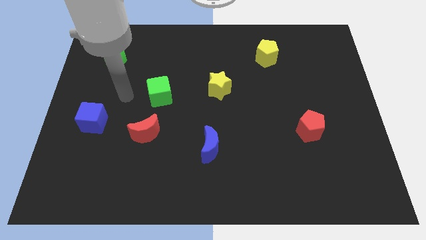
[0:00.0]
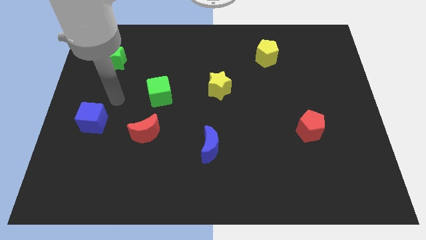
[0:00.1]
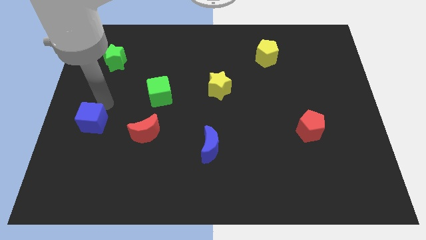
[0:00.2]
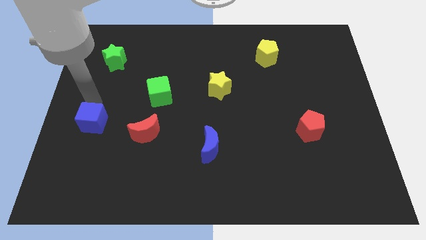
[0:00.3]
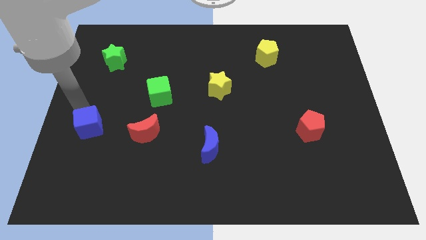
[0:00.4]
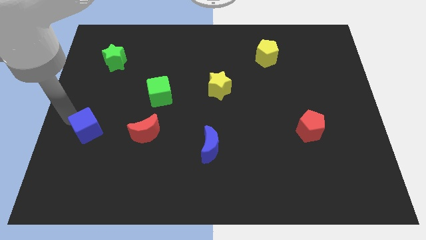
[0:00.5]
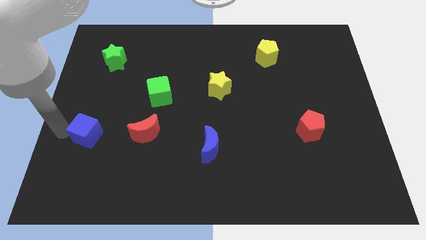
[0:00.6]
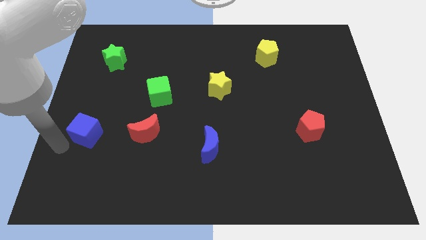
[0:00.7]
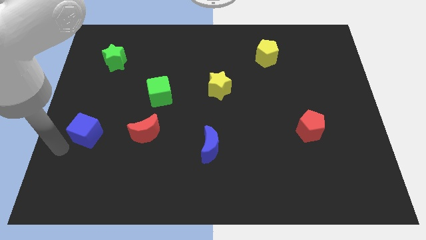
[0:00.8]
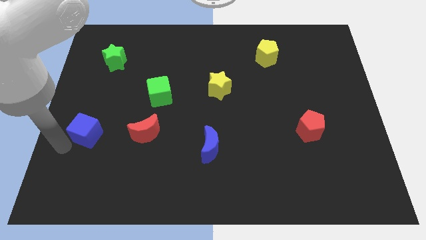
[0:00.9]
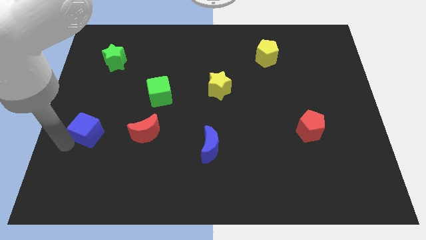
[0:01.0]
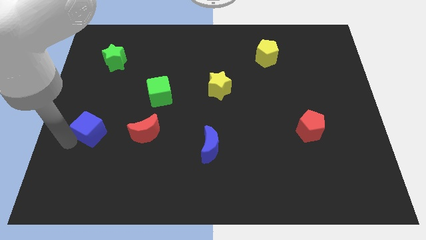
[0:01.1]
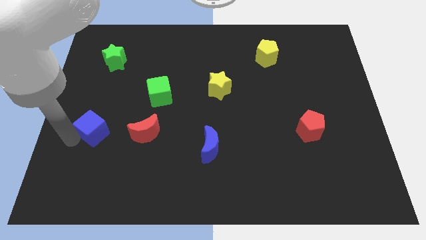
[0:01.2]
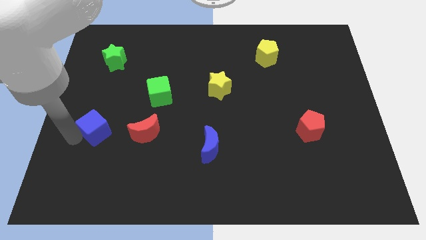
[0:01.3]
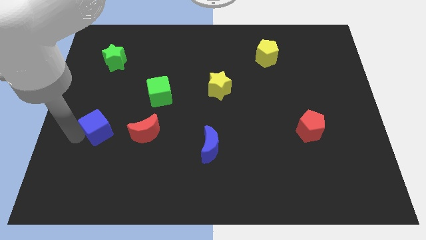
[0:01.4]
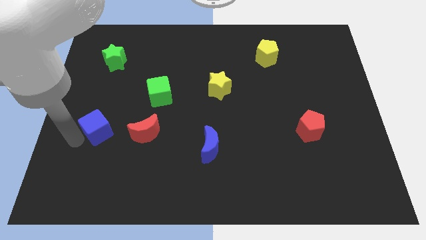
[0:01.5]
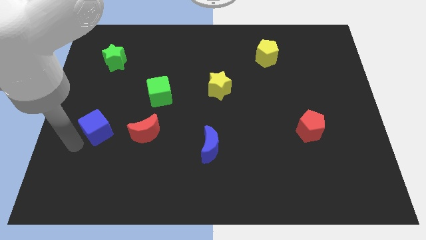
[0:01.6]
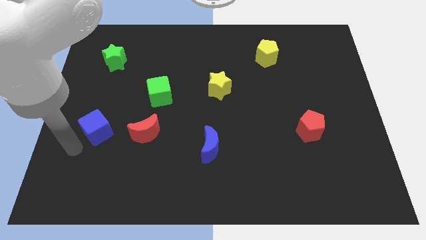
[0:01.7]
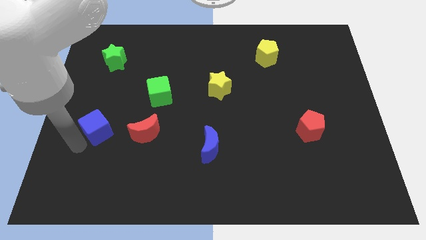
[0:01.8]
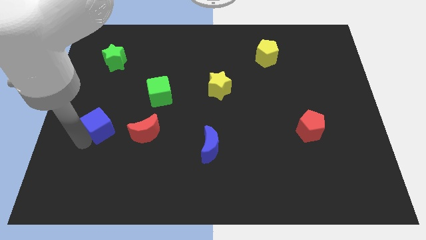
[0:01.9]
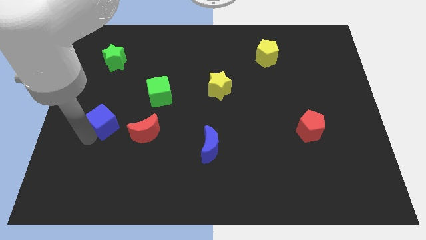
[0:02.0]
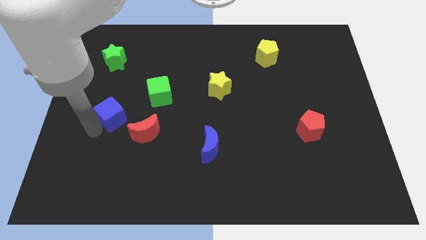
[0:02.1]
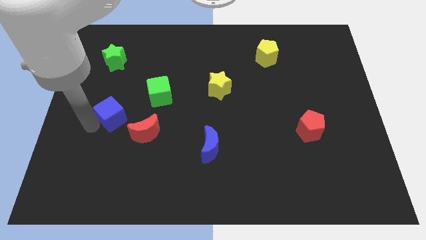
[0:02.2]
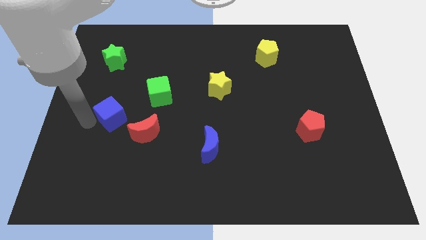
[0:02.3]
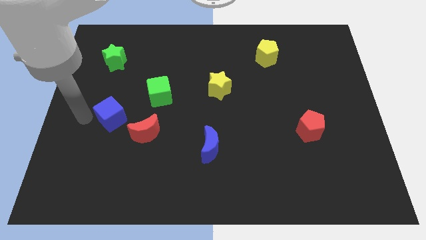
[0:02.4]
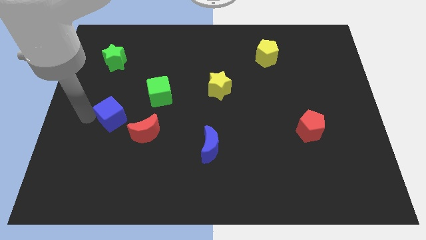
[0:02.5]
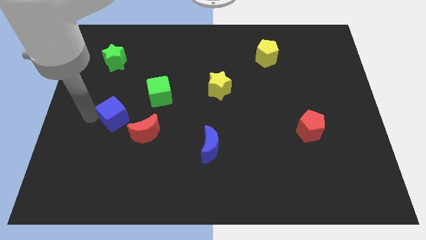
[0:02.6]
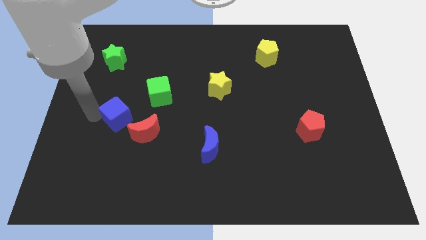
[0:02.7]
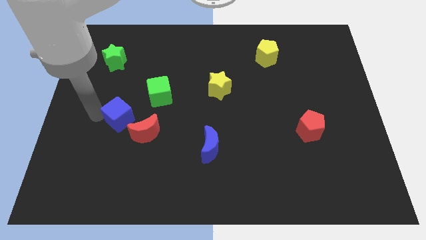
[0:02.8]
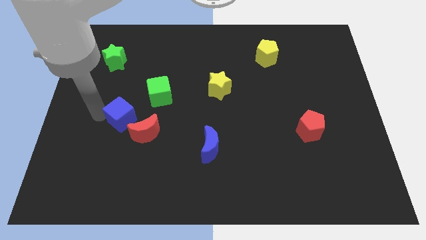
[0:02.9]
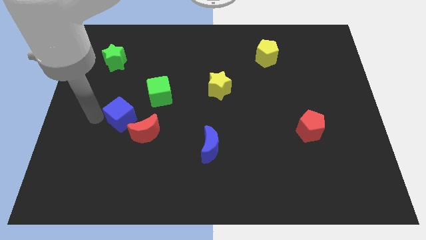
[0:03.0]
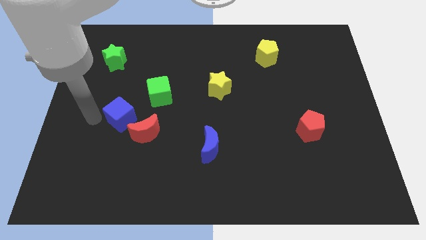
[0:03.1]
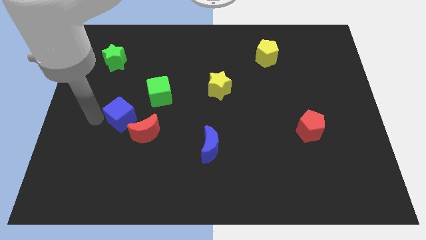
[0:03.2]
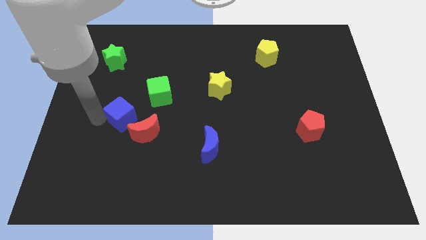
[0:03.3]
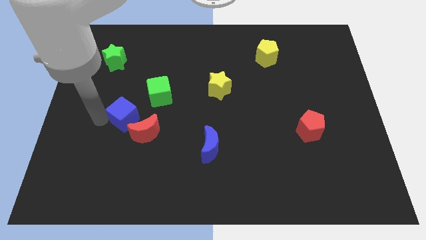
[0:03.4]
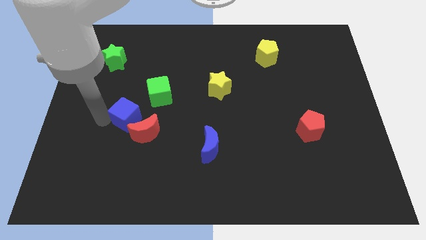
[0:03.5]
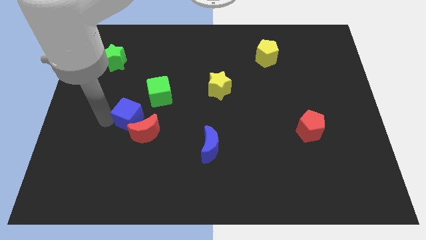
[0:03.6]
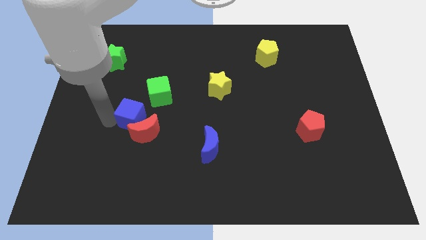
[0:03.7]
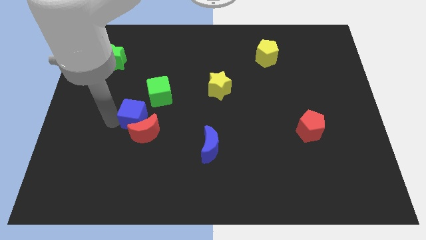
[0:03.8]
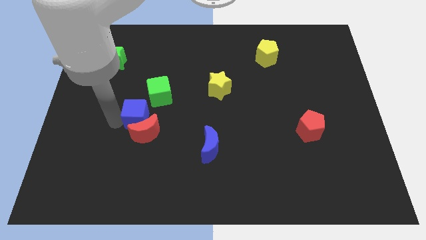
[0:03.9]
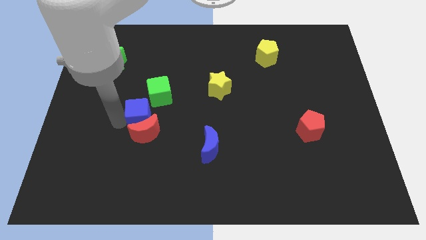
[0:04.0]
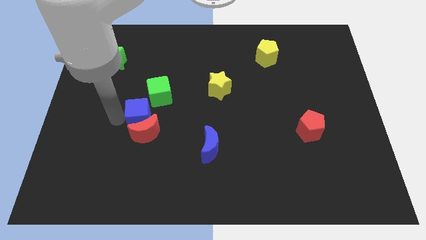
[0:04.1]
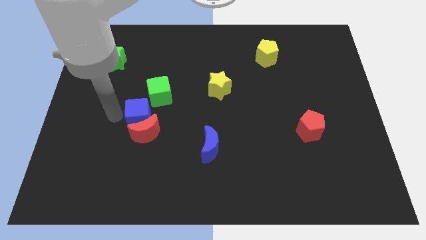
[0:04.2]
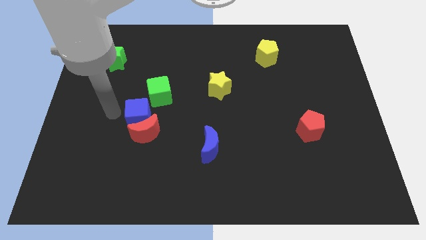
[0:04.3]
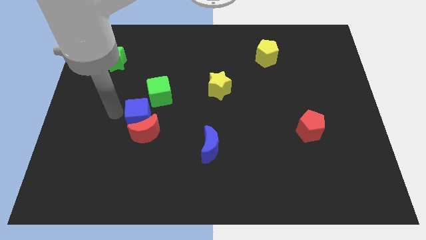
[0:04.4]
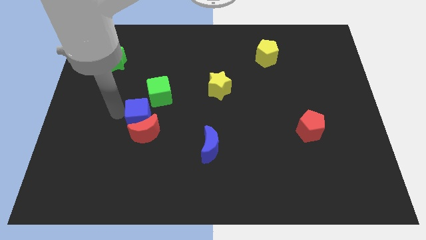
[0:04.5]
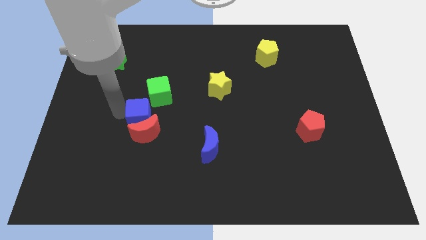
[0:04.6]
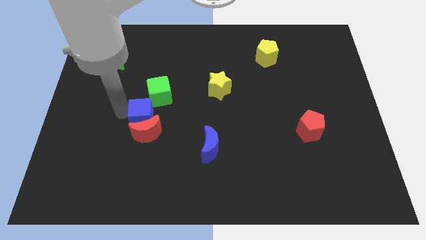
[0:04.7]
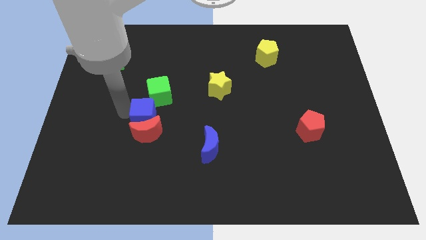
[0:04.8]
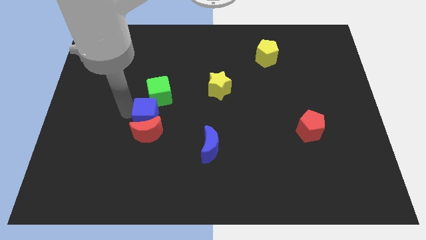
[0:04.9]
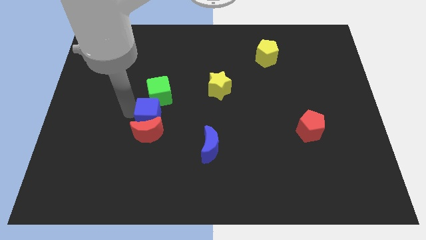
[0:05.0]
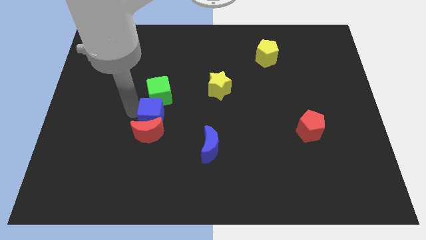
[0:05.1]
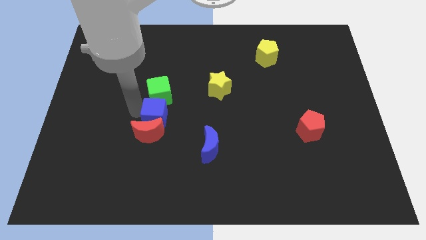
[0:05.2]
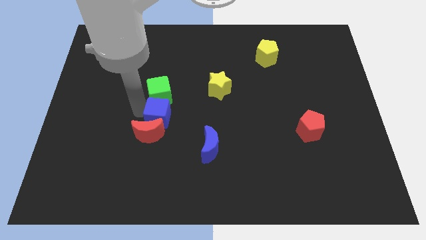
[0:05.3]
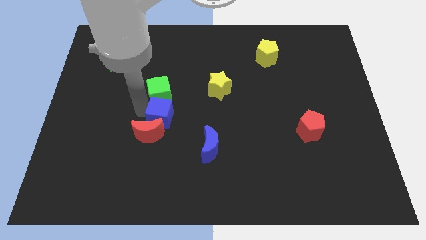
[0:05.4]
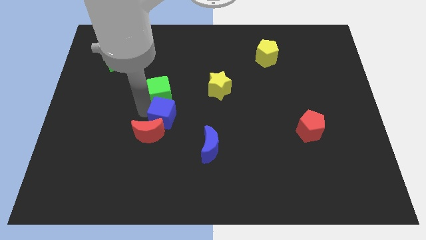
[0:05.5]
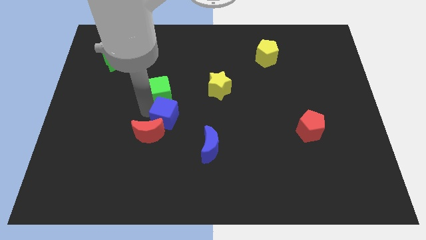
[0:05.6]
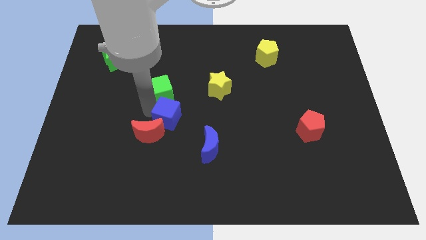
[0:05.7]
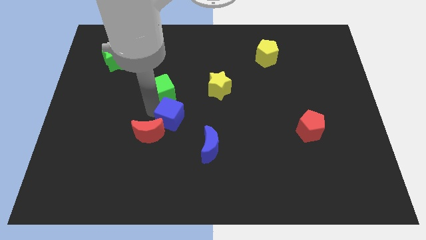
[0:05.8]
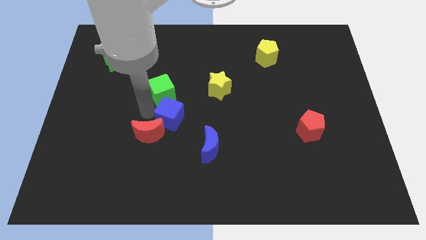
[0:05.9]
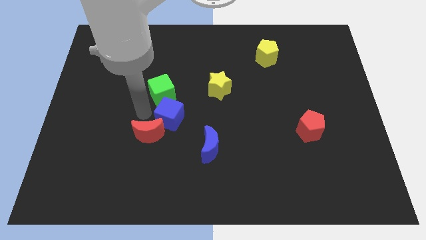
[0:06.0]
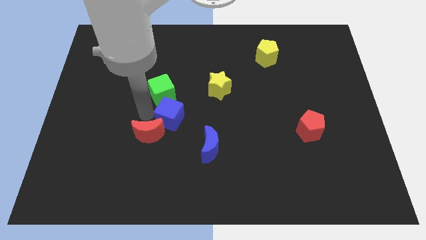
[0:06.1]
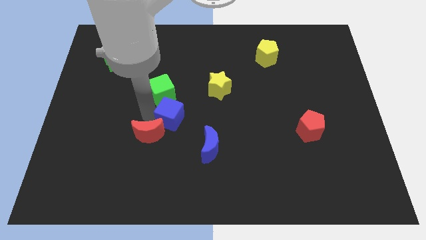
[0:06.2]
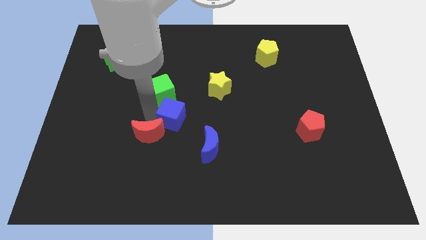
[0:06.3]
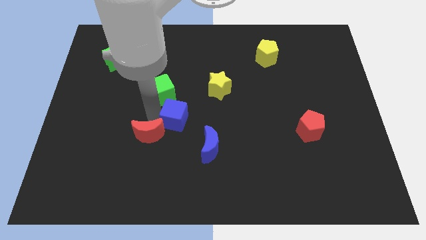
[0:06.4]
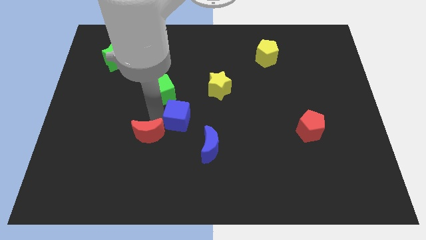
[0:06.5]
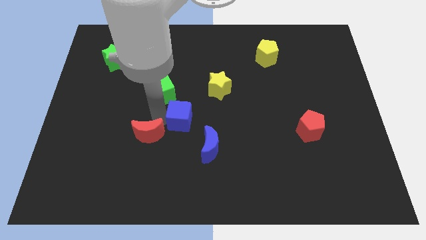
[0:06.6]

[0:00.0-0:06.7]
move the blue cube to the right

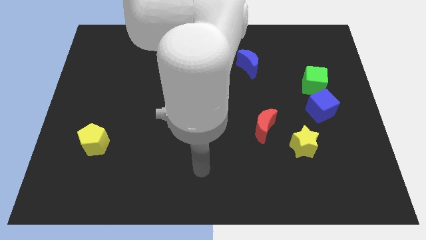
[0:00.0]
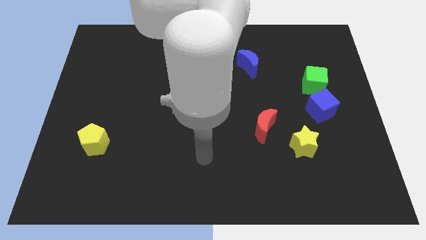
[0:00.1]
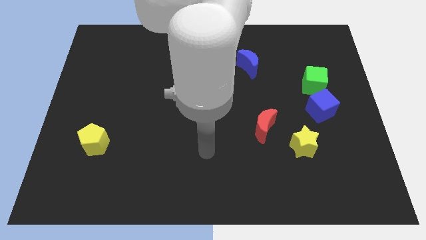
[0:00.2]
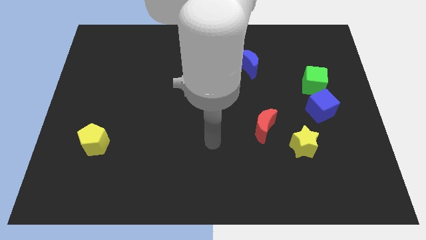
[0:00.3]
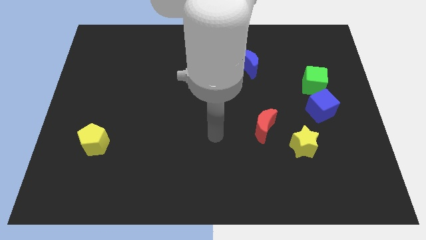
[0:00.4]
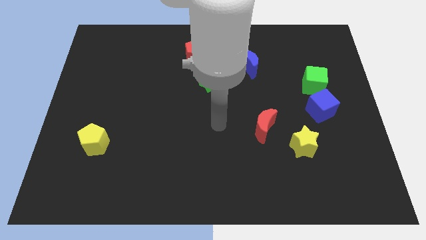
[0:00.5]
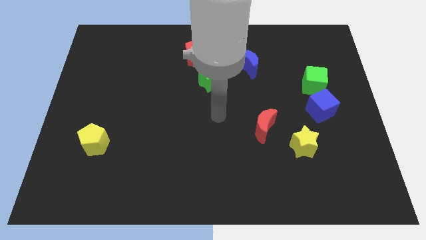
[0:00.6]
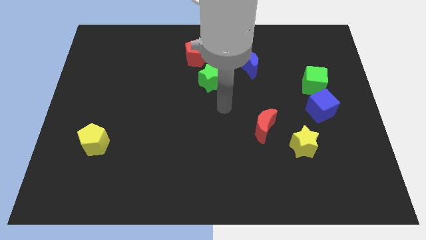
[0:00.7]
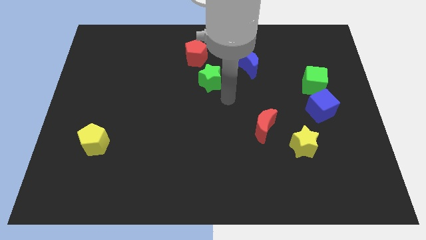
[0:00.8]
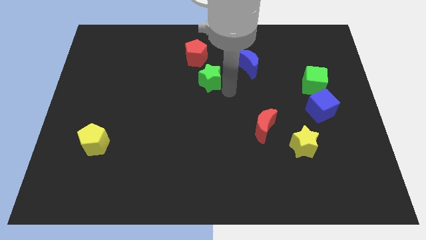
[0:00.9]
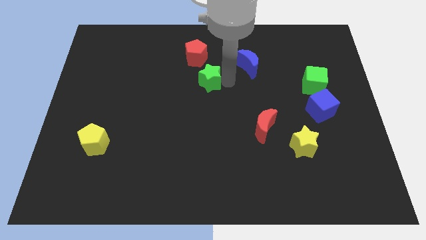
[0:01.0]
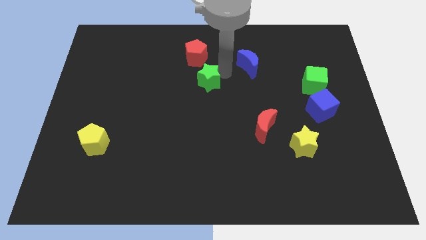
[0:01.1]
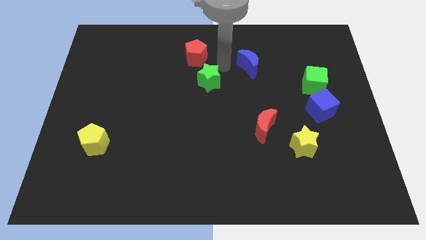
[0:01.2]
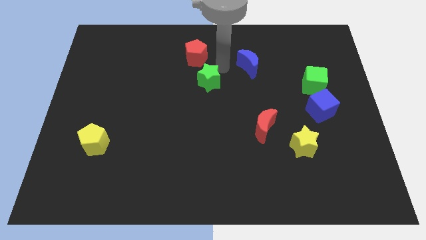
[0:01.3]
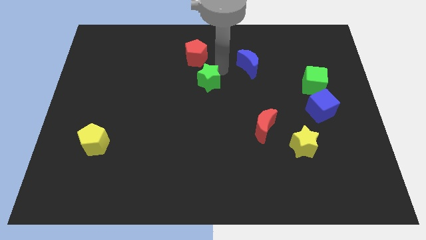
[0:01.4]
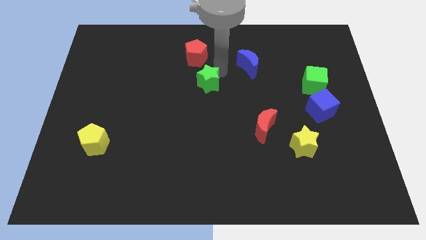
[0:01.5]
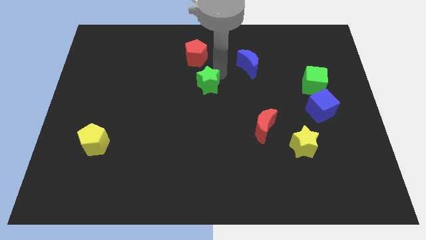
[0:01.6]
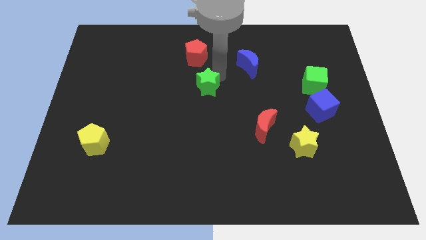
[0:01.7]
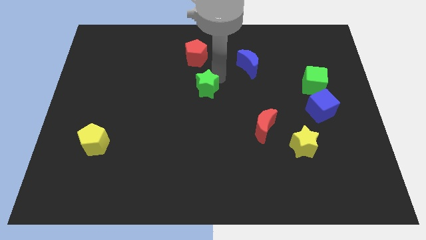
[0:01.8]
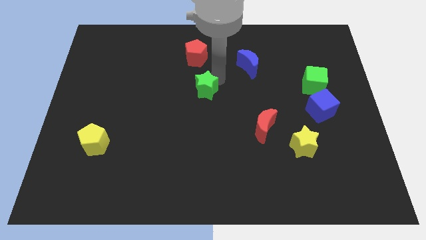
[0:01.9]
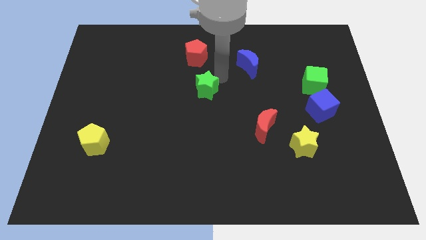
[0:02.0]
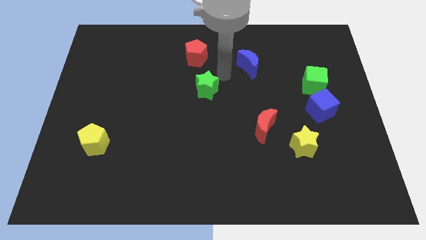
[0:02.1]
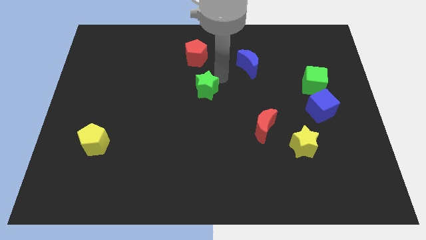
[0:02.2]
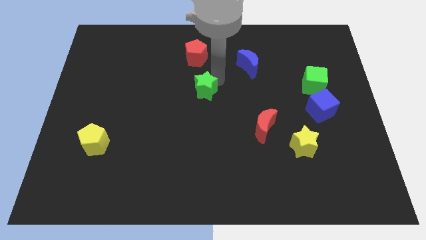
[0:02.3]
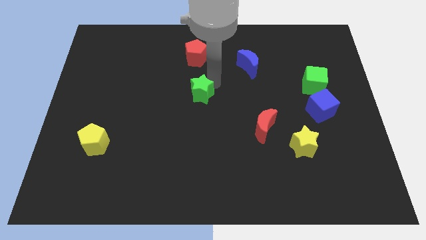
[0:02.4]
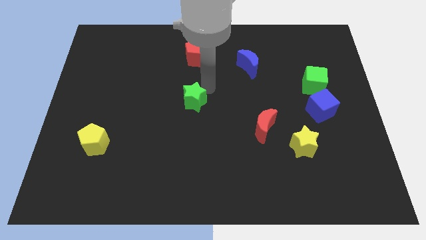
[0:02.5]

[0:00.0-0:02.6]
slightly move the green star down and left
